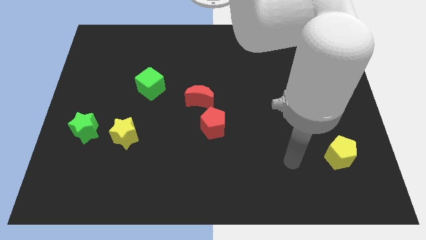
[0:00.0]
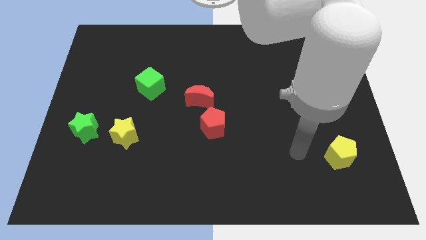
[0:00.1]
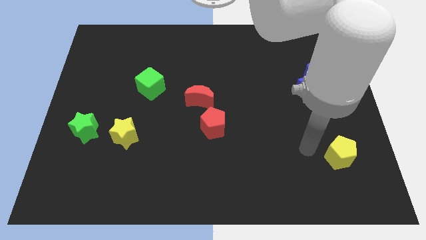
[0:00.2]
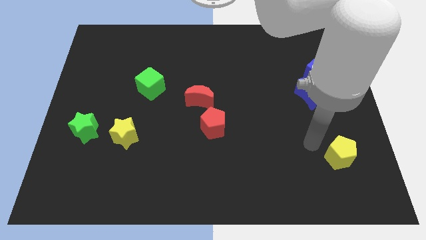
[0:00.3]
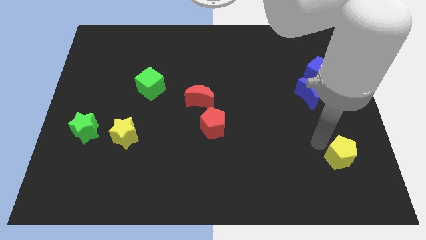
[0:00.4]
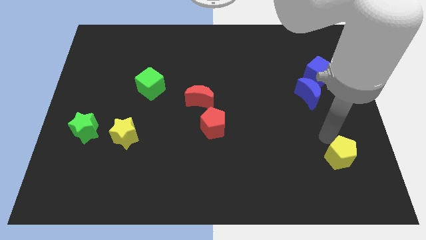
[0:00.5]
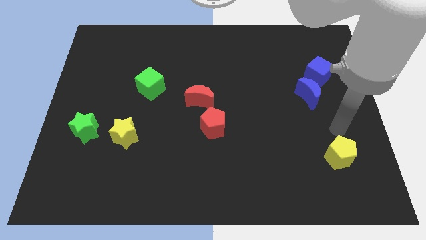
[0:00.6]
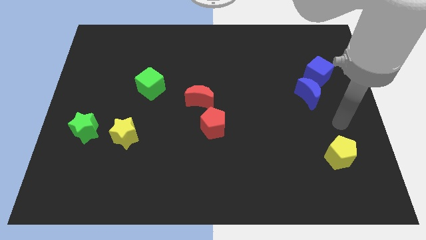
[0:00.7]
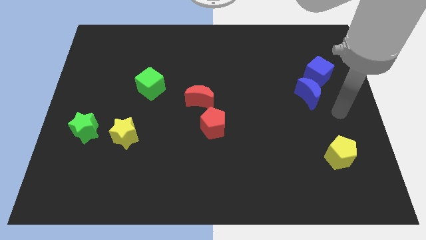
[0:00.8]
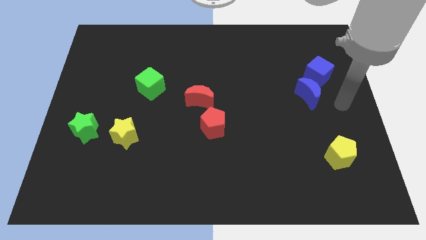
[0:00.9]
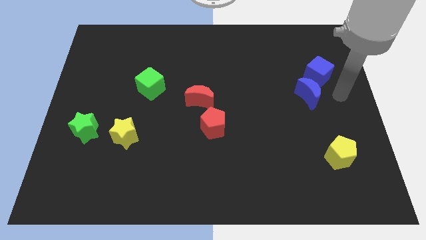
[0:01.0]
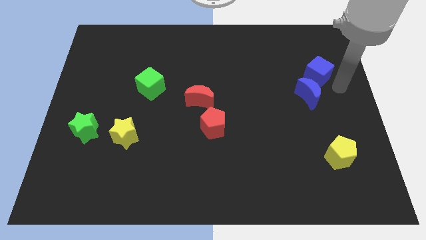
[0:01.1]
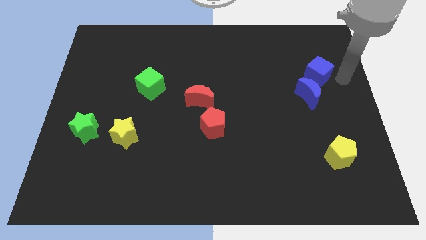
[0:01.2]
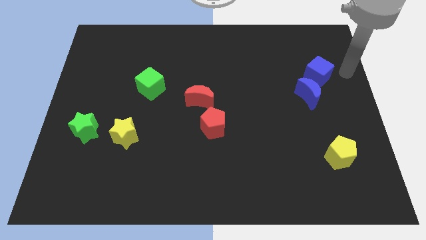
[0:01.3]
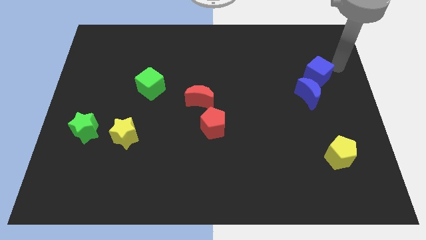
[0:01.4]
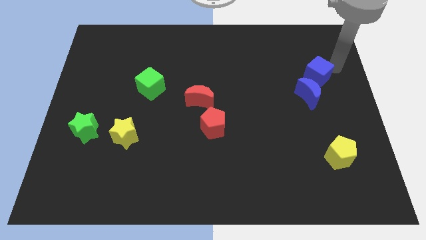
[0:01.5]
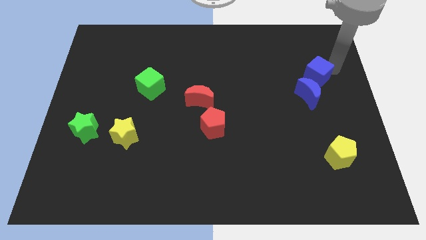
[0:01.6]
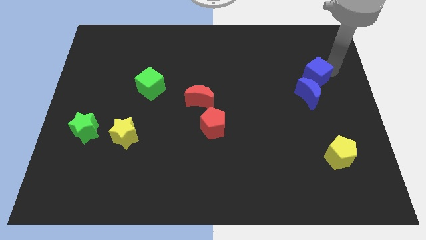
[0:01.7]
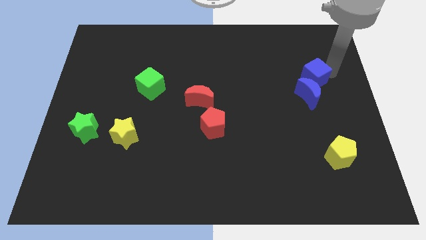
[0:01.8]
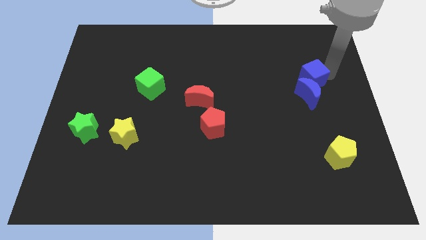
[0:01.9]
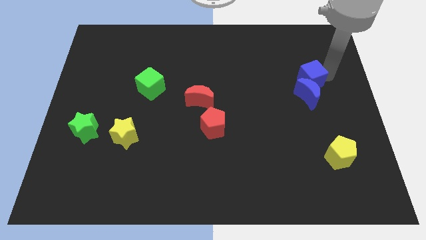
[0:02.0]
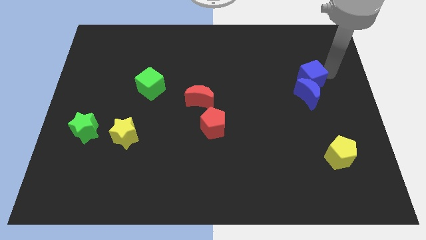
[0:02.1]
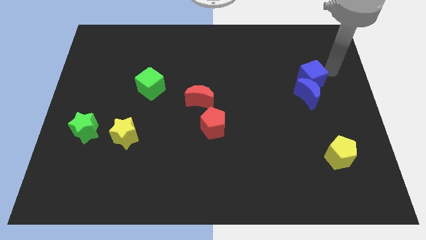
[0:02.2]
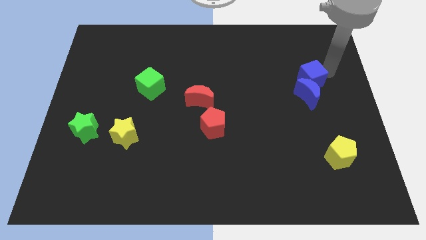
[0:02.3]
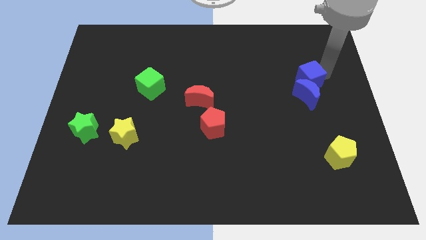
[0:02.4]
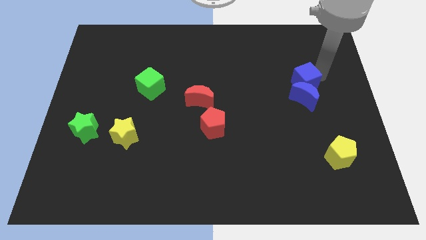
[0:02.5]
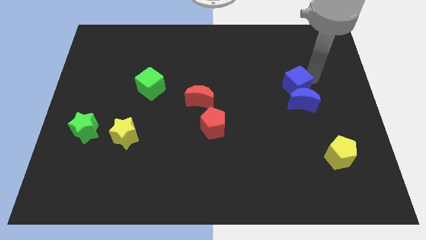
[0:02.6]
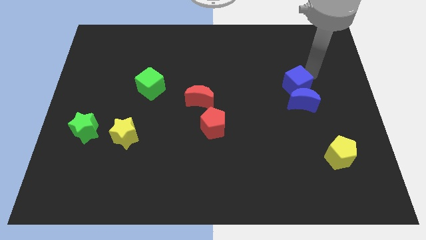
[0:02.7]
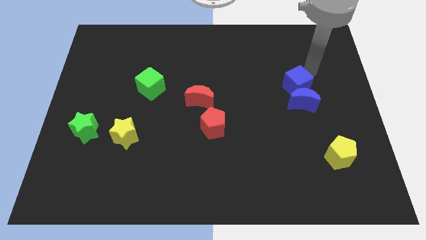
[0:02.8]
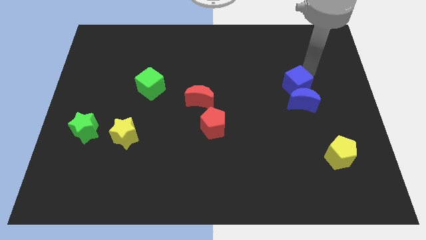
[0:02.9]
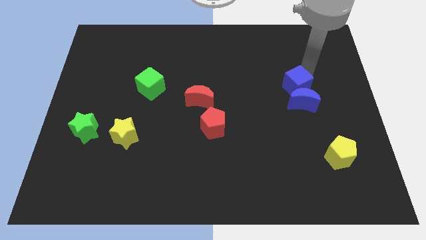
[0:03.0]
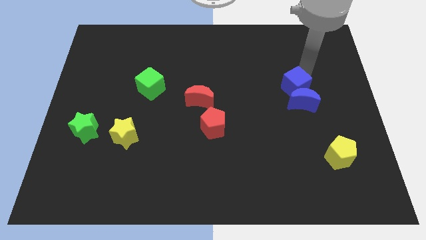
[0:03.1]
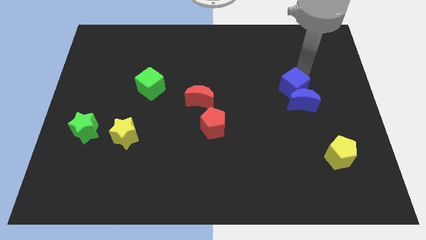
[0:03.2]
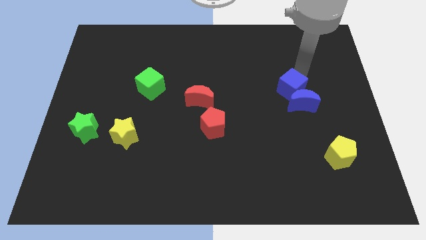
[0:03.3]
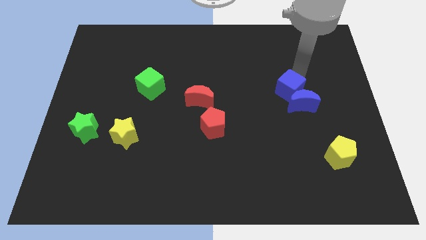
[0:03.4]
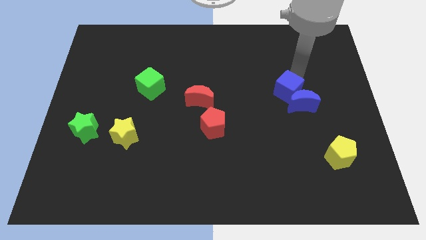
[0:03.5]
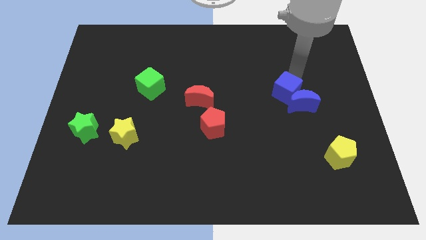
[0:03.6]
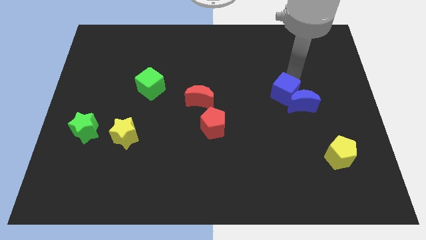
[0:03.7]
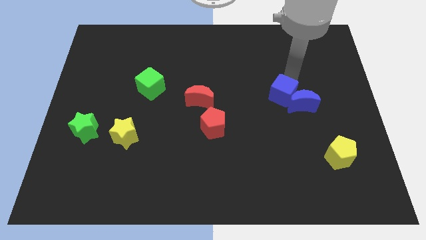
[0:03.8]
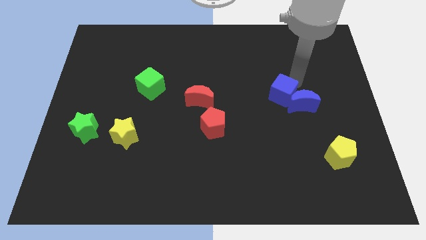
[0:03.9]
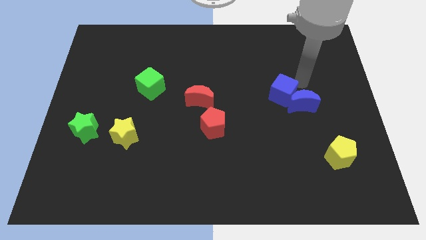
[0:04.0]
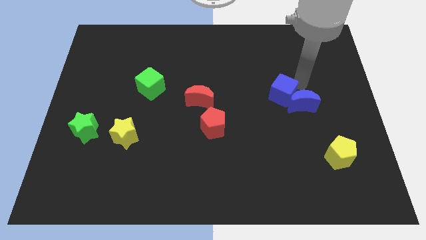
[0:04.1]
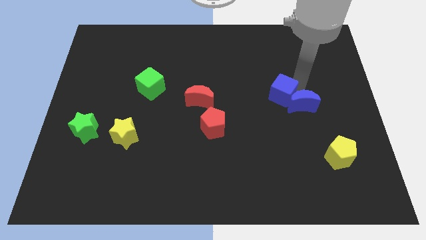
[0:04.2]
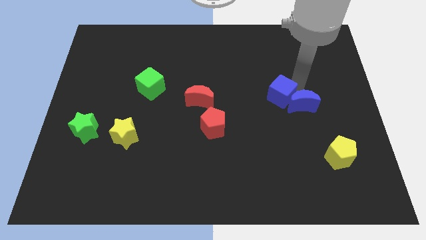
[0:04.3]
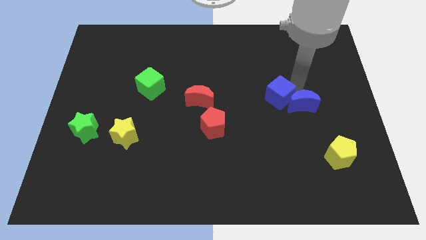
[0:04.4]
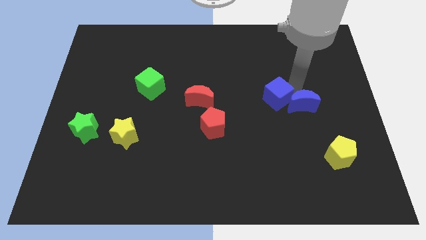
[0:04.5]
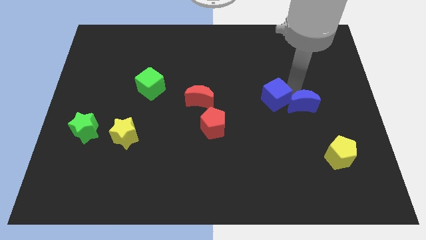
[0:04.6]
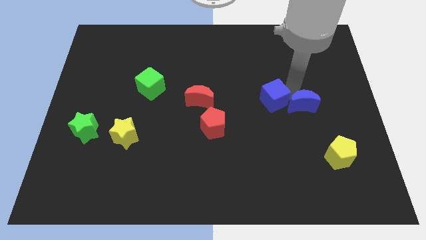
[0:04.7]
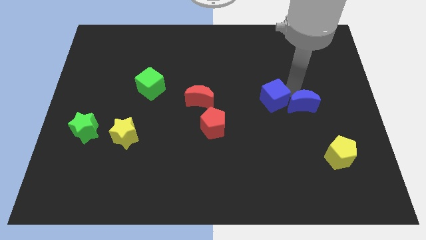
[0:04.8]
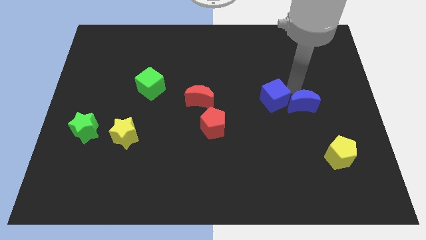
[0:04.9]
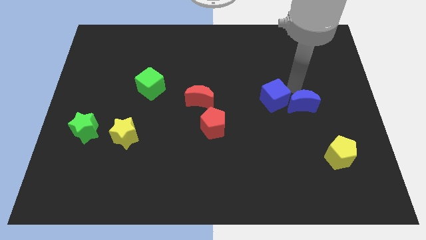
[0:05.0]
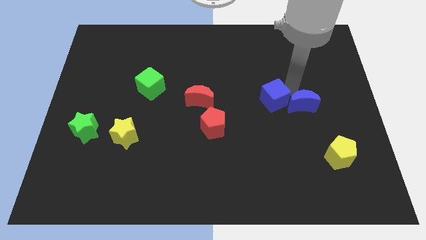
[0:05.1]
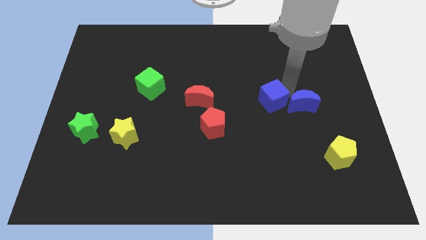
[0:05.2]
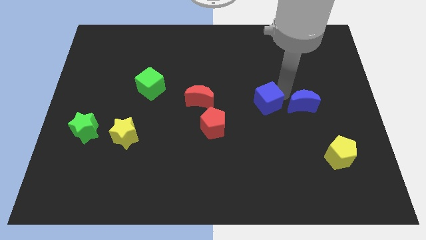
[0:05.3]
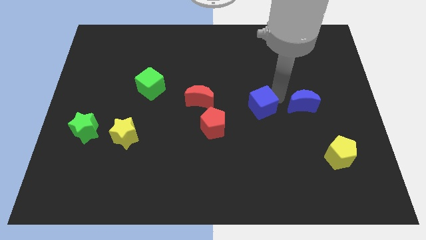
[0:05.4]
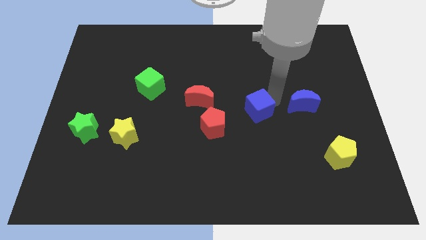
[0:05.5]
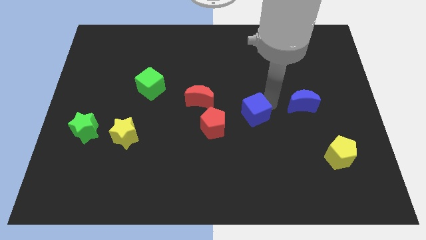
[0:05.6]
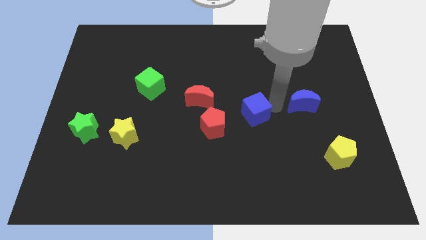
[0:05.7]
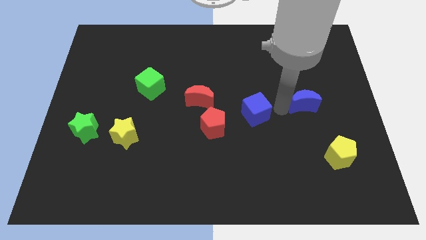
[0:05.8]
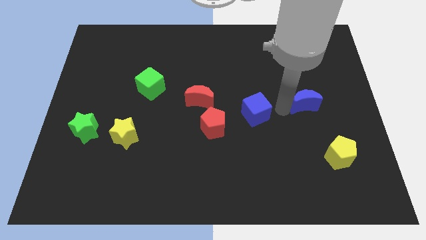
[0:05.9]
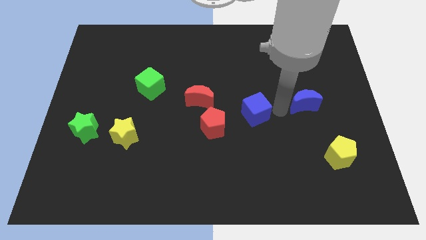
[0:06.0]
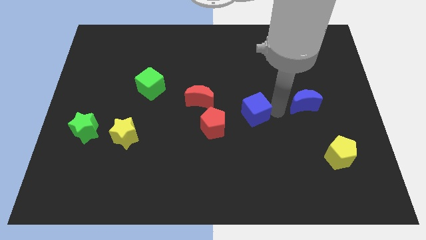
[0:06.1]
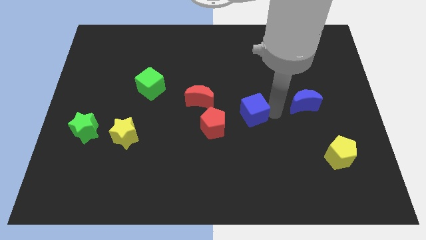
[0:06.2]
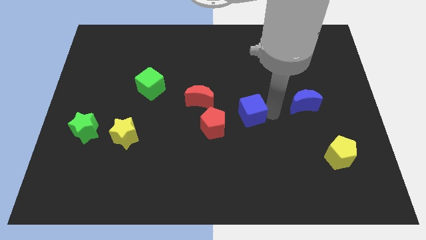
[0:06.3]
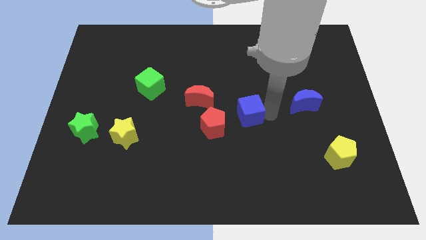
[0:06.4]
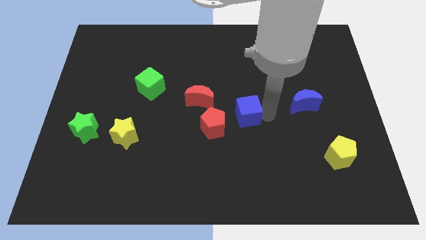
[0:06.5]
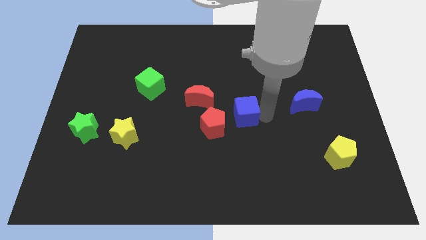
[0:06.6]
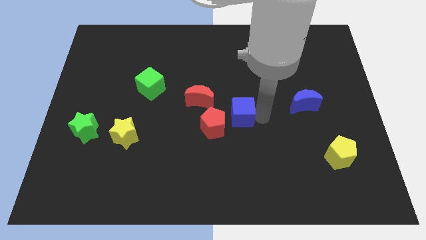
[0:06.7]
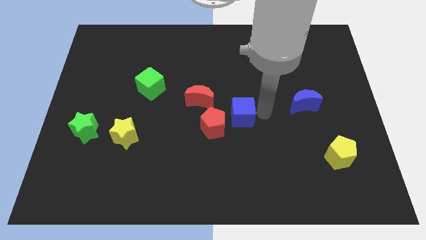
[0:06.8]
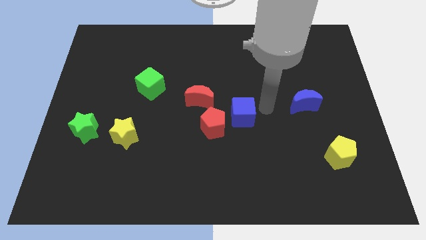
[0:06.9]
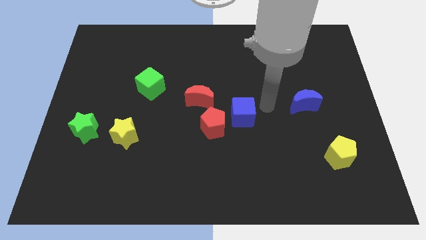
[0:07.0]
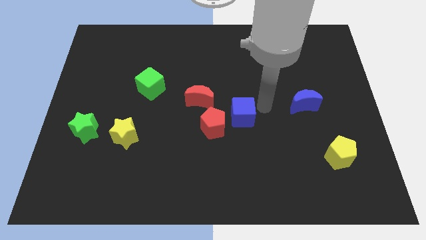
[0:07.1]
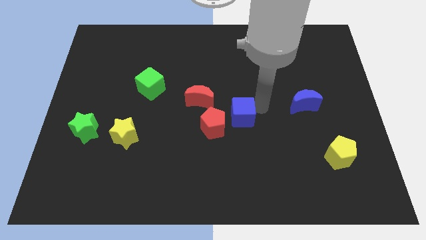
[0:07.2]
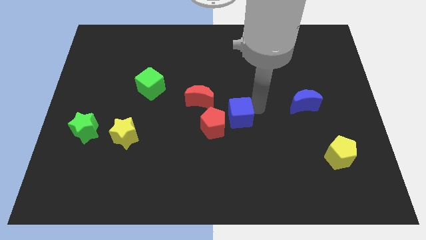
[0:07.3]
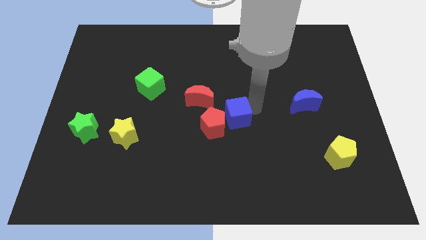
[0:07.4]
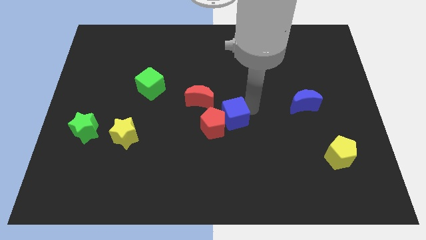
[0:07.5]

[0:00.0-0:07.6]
slide the blue cube next to the red pentagon
